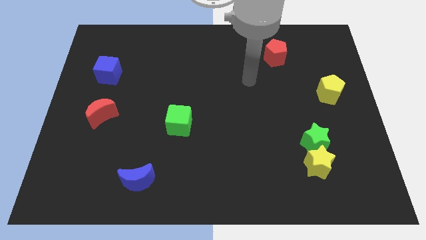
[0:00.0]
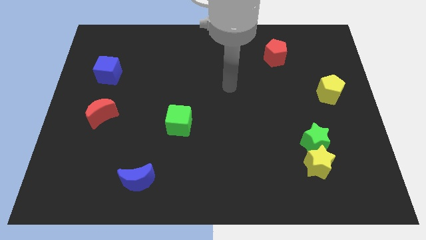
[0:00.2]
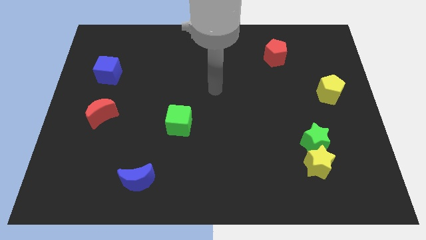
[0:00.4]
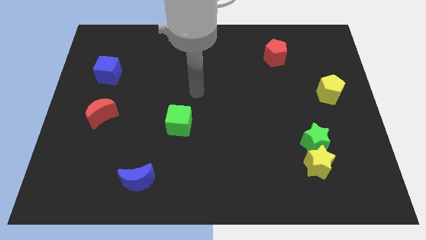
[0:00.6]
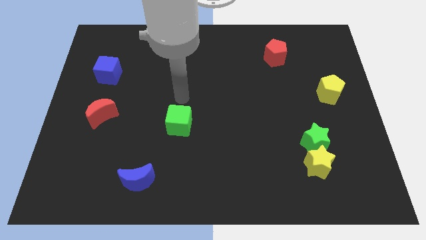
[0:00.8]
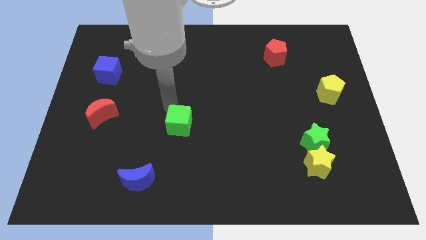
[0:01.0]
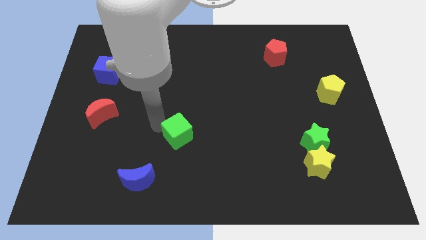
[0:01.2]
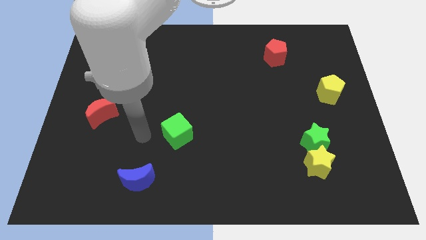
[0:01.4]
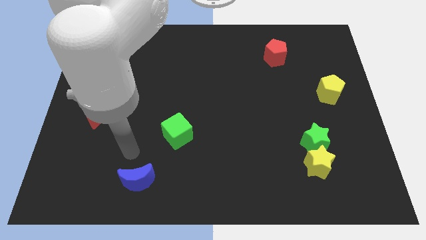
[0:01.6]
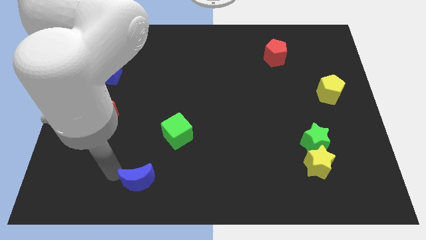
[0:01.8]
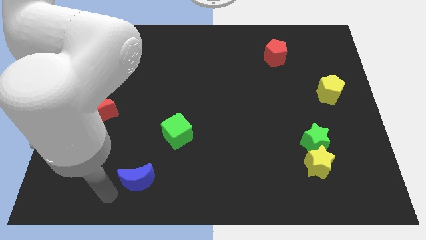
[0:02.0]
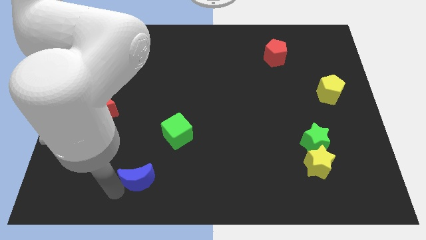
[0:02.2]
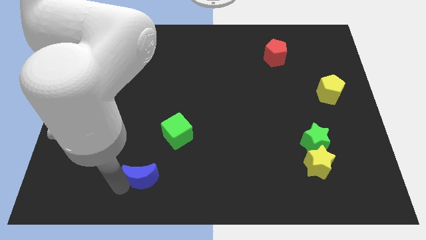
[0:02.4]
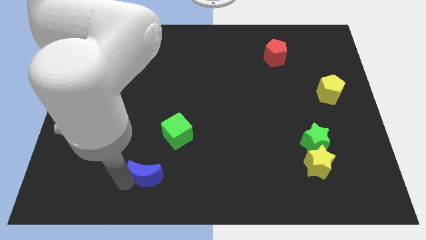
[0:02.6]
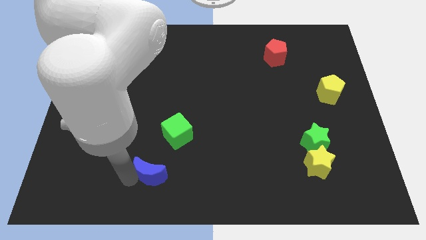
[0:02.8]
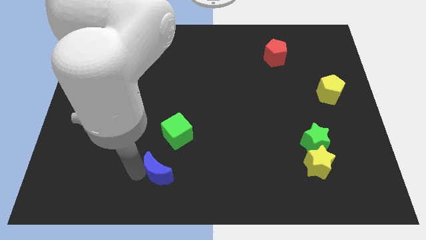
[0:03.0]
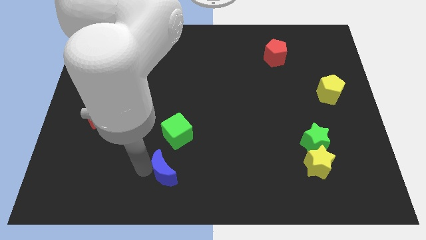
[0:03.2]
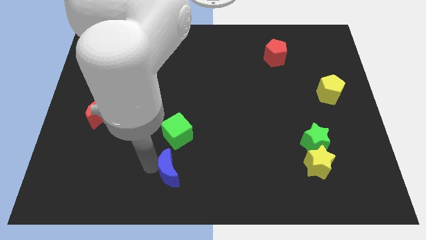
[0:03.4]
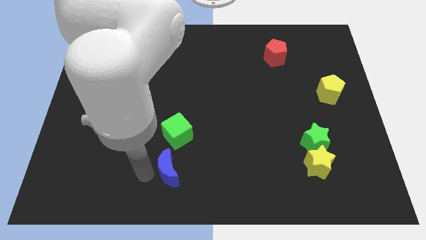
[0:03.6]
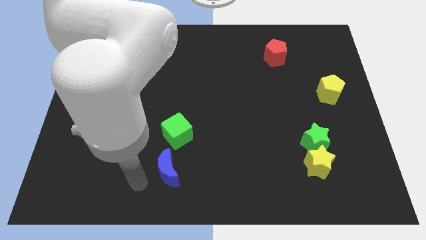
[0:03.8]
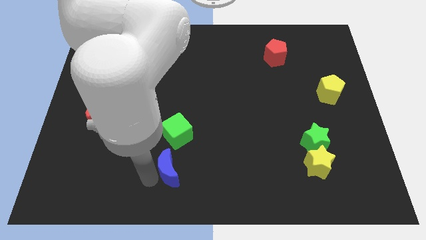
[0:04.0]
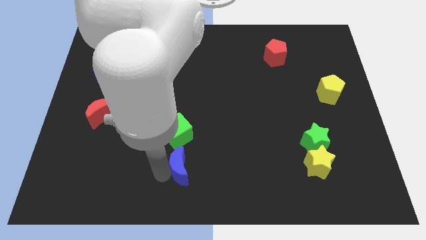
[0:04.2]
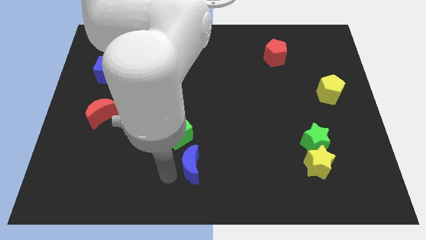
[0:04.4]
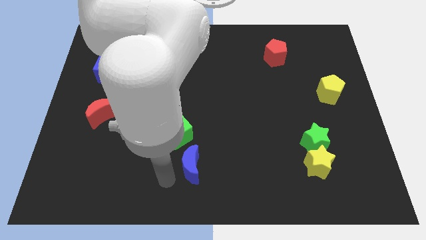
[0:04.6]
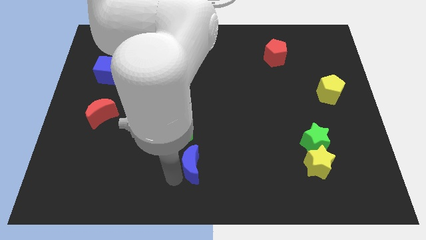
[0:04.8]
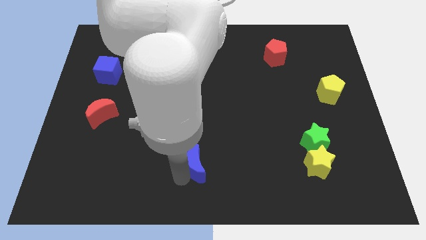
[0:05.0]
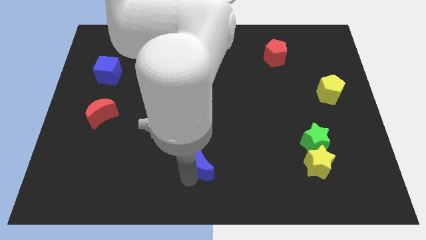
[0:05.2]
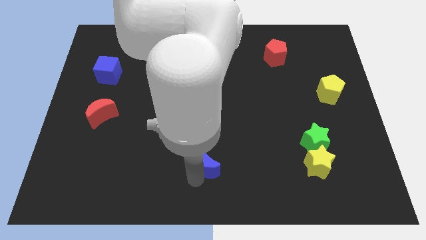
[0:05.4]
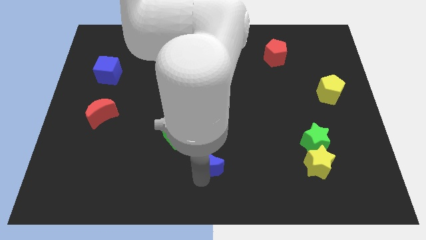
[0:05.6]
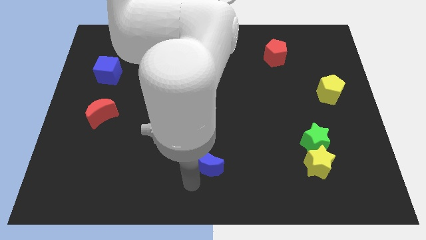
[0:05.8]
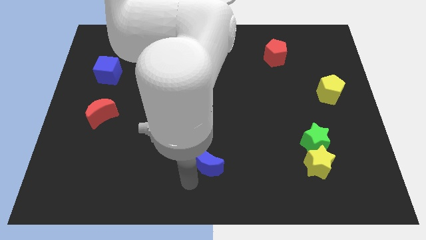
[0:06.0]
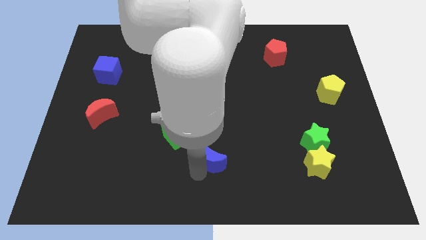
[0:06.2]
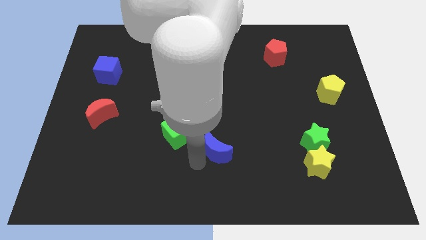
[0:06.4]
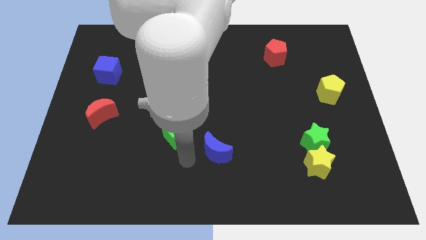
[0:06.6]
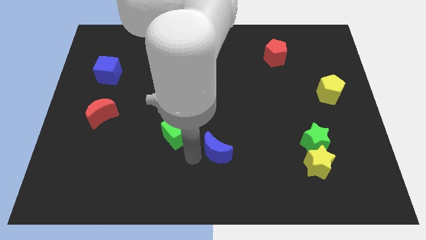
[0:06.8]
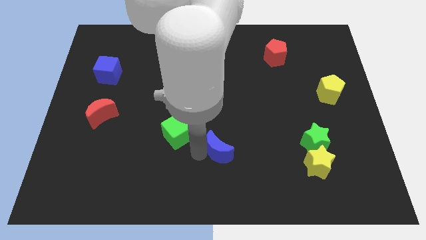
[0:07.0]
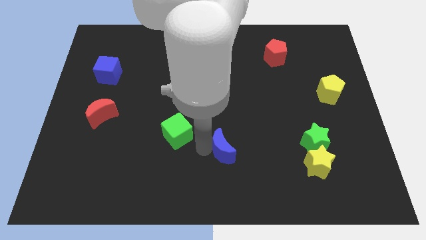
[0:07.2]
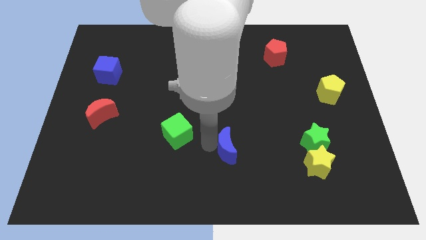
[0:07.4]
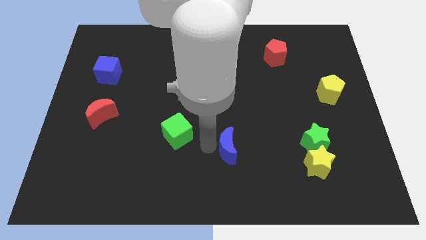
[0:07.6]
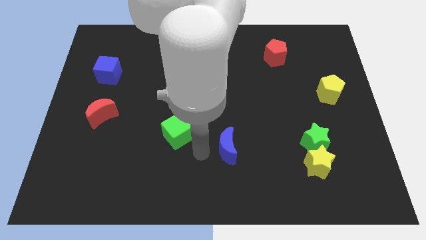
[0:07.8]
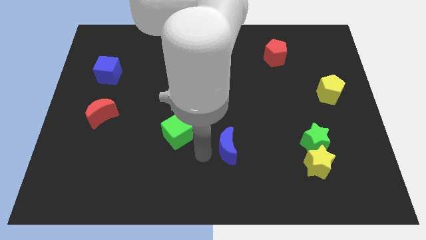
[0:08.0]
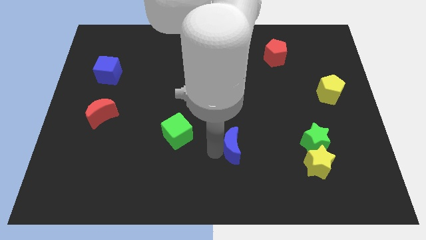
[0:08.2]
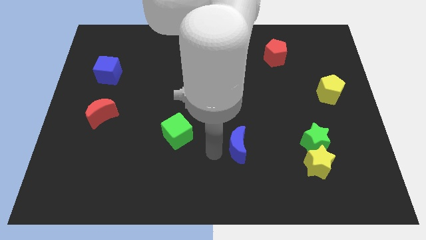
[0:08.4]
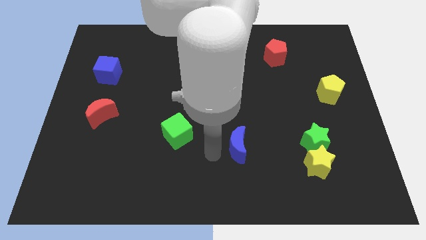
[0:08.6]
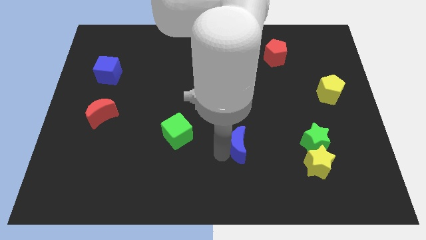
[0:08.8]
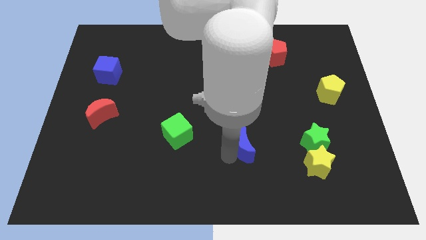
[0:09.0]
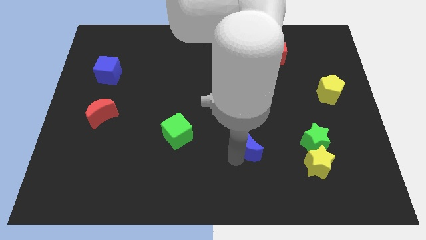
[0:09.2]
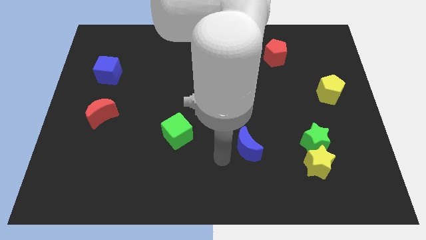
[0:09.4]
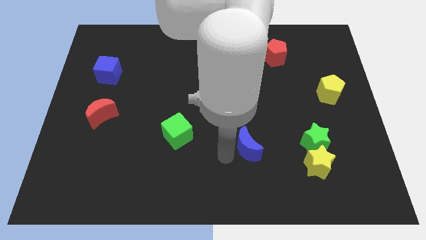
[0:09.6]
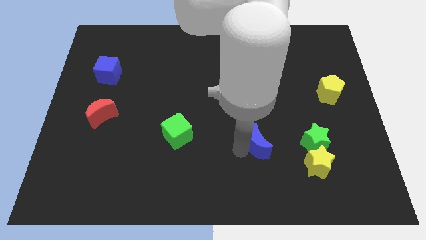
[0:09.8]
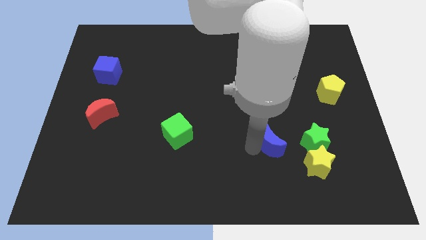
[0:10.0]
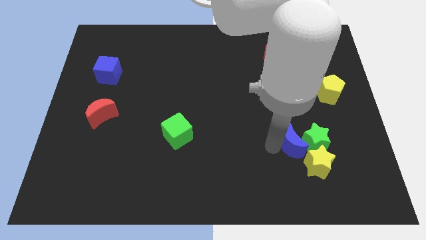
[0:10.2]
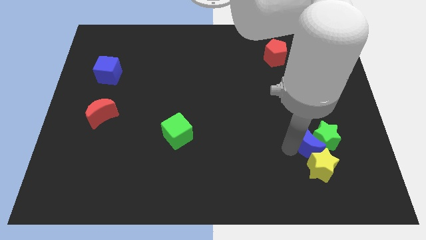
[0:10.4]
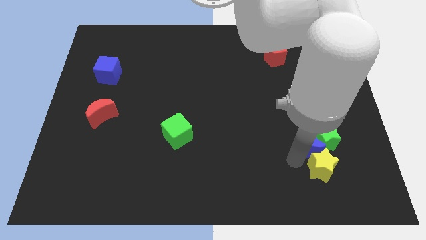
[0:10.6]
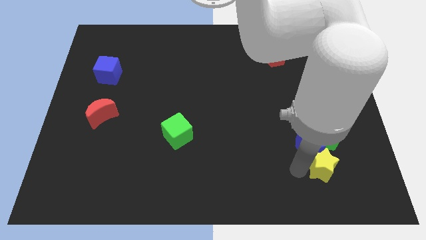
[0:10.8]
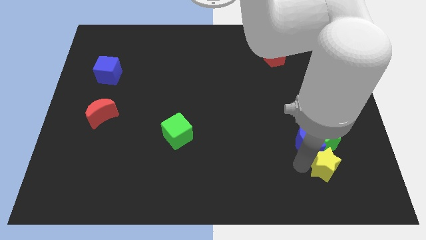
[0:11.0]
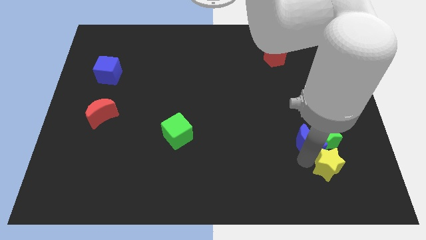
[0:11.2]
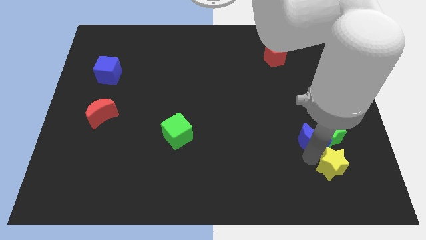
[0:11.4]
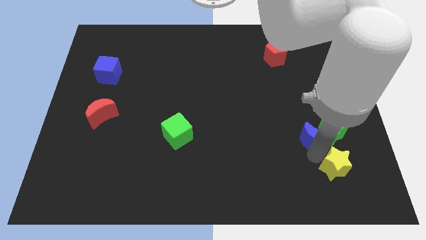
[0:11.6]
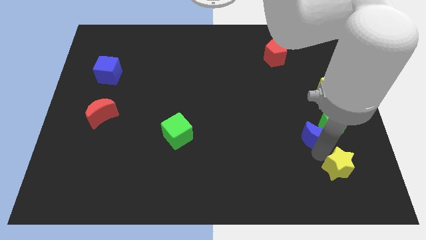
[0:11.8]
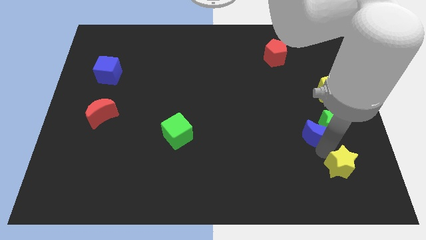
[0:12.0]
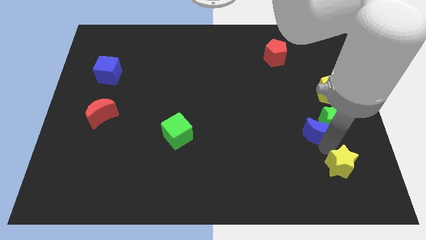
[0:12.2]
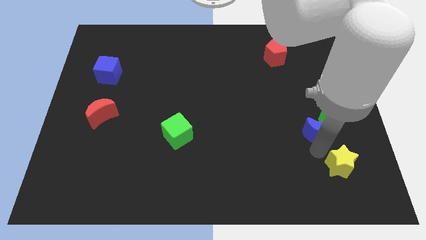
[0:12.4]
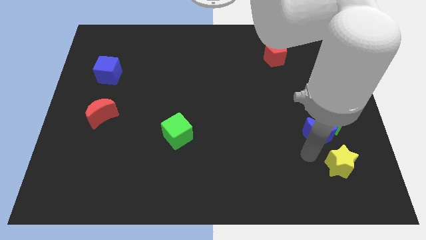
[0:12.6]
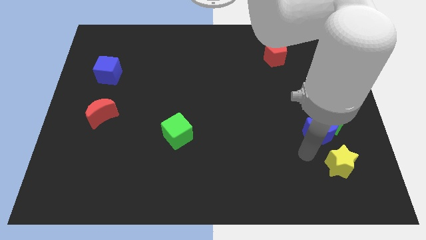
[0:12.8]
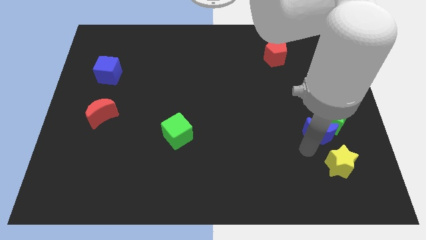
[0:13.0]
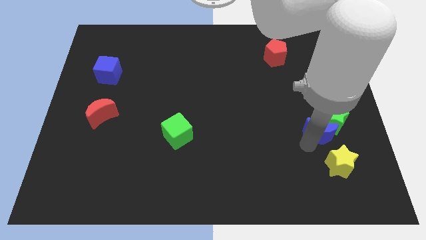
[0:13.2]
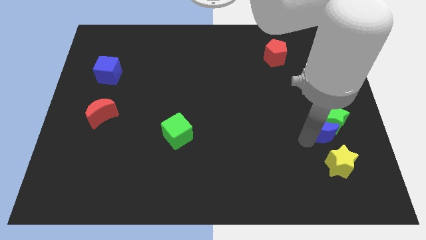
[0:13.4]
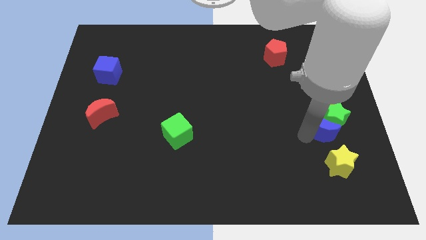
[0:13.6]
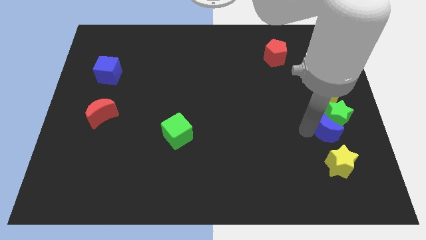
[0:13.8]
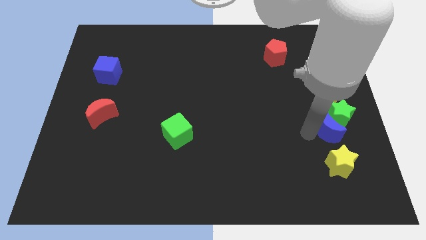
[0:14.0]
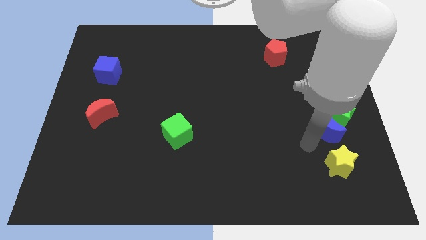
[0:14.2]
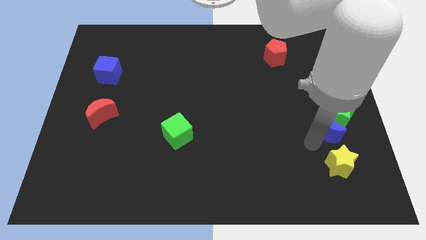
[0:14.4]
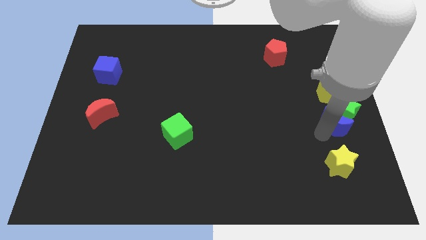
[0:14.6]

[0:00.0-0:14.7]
move the blue moon to the right side
